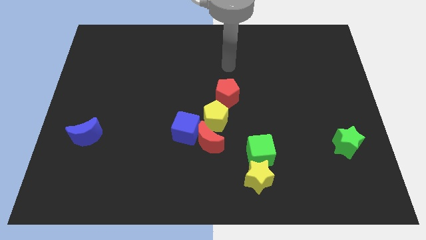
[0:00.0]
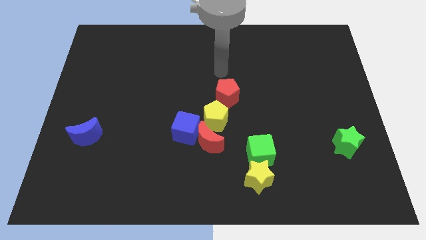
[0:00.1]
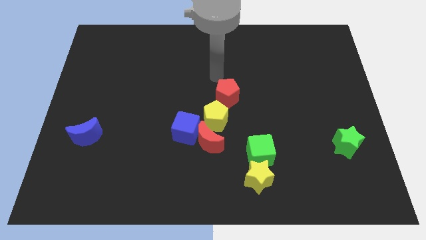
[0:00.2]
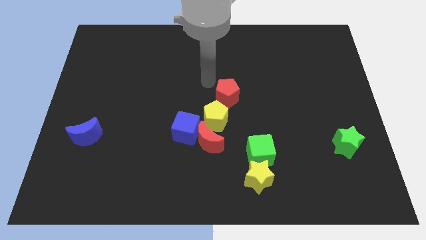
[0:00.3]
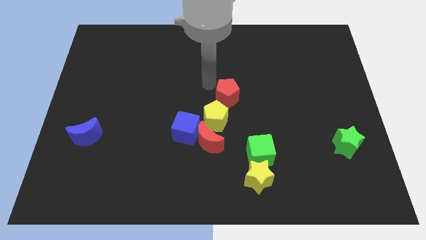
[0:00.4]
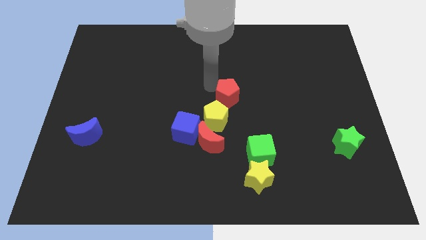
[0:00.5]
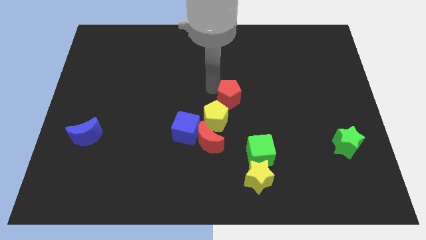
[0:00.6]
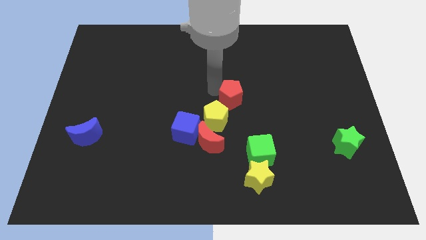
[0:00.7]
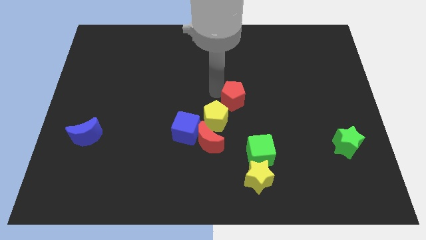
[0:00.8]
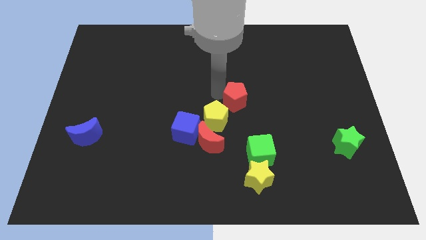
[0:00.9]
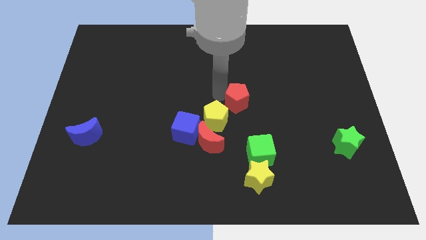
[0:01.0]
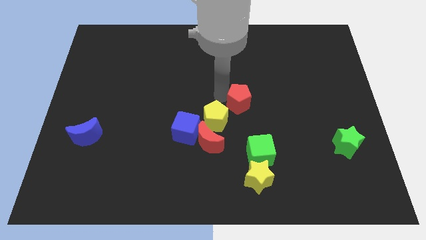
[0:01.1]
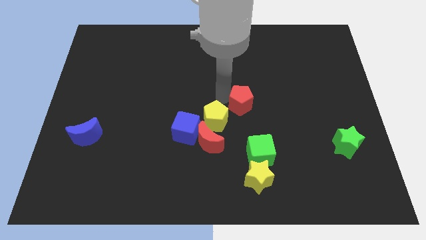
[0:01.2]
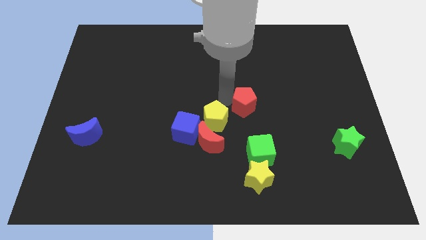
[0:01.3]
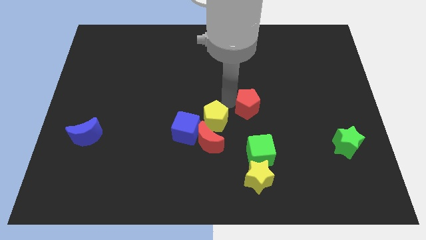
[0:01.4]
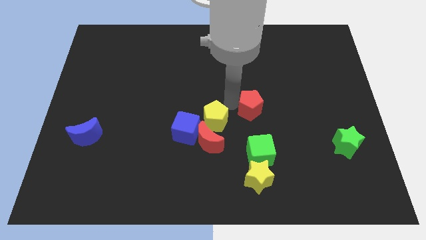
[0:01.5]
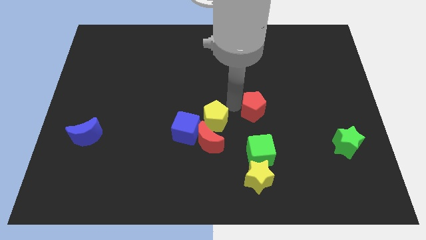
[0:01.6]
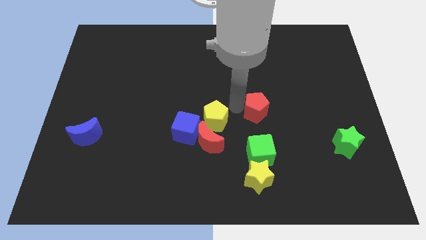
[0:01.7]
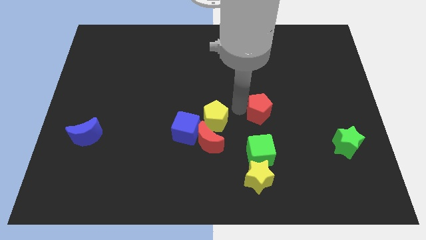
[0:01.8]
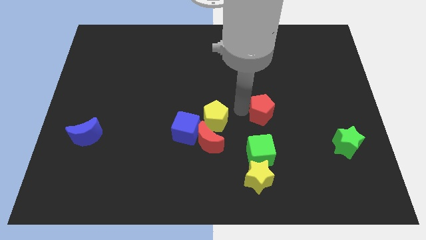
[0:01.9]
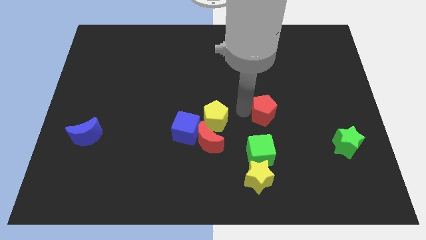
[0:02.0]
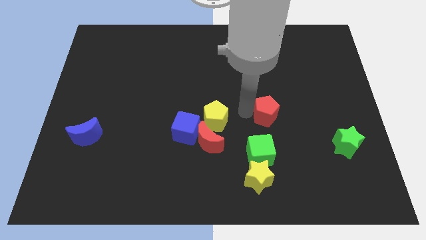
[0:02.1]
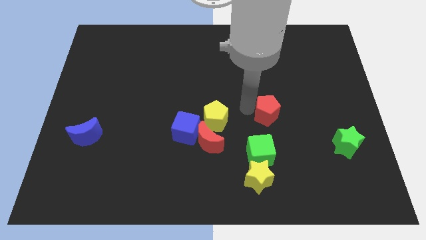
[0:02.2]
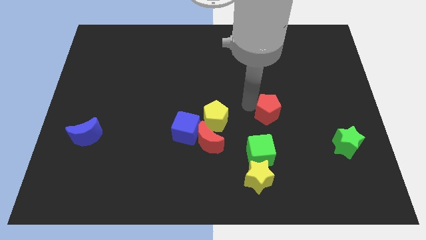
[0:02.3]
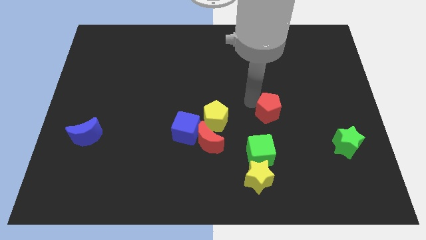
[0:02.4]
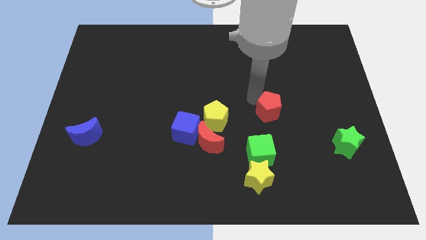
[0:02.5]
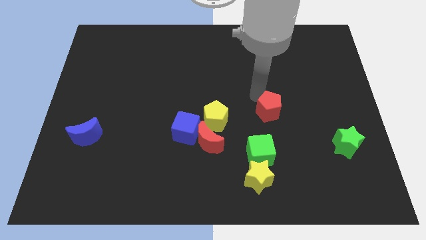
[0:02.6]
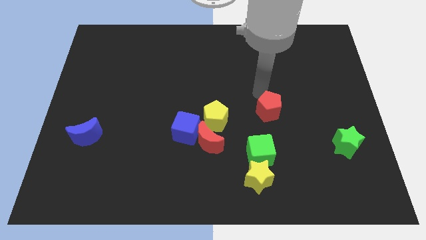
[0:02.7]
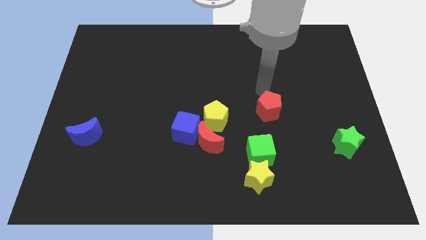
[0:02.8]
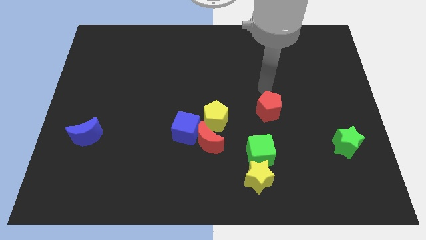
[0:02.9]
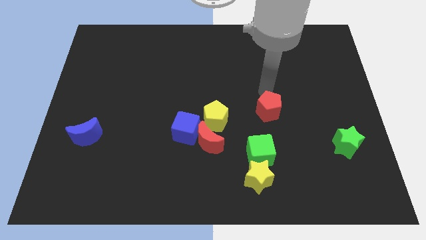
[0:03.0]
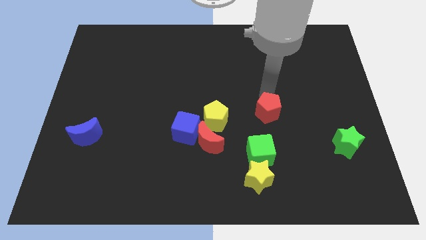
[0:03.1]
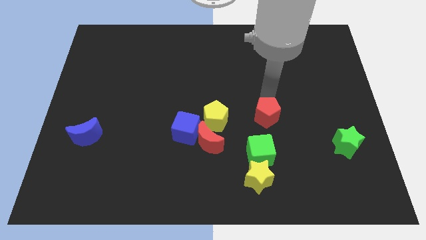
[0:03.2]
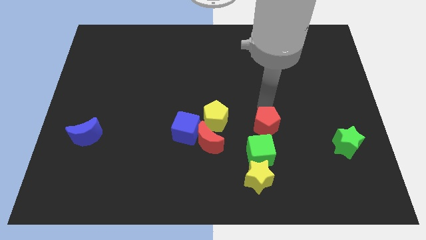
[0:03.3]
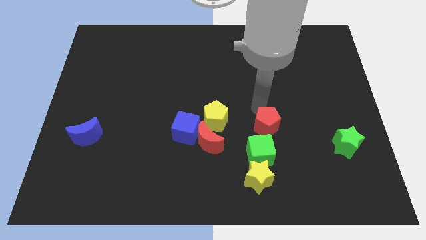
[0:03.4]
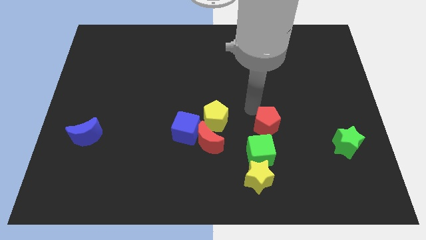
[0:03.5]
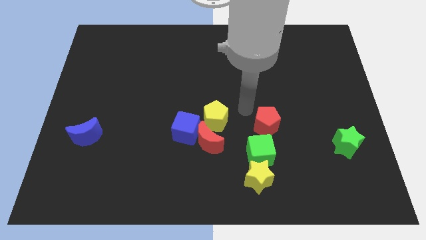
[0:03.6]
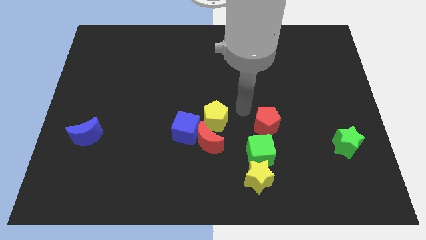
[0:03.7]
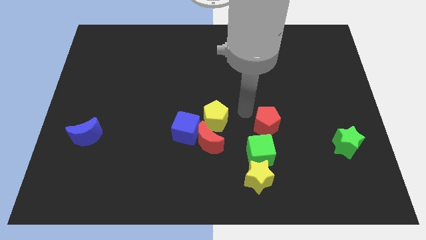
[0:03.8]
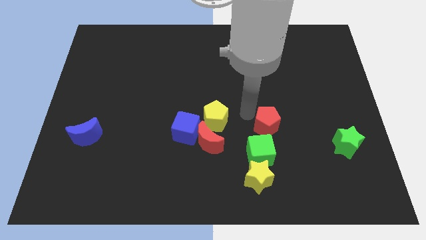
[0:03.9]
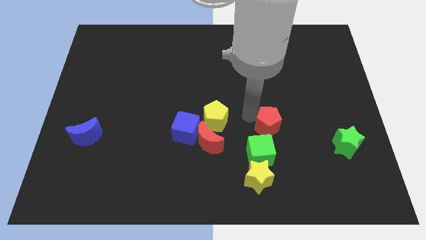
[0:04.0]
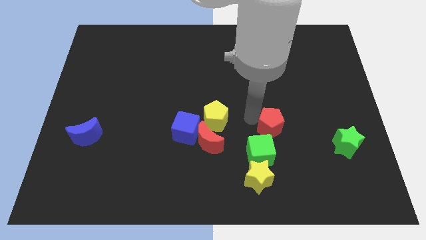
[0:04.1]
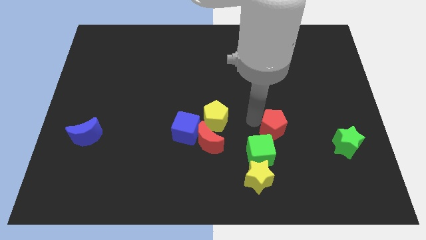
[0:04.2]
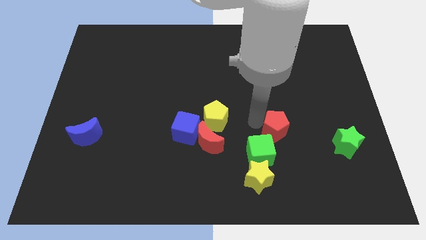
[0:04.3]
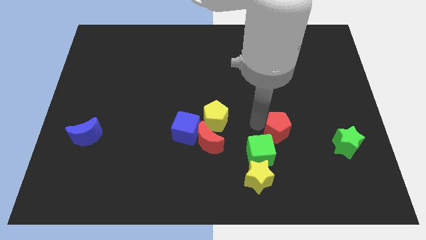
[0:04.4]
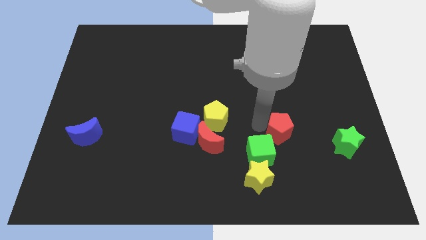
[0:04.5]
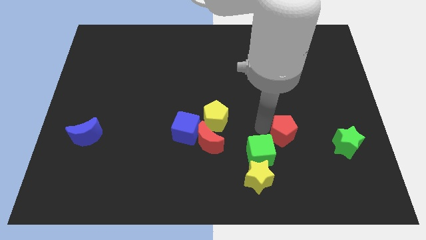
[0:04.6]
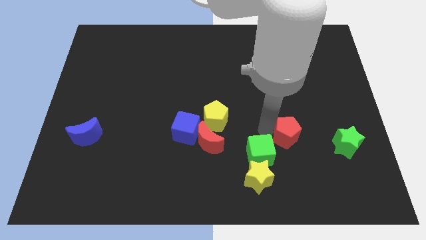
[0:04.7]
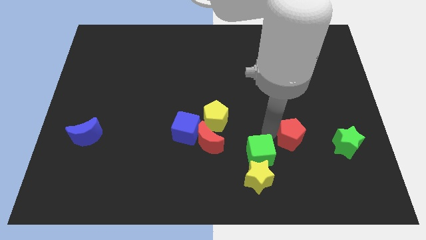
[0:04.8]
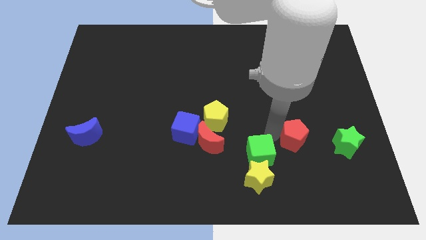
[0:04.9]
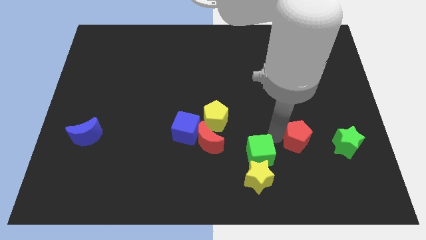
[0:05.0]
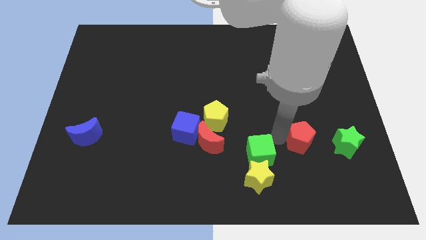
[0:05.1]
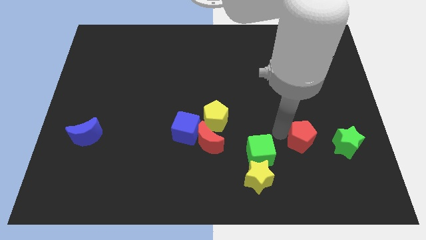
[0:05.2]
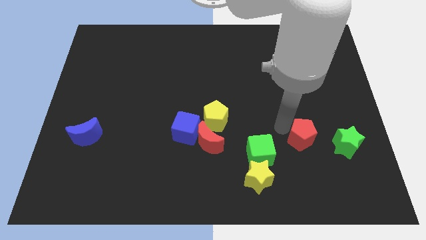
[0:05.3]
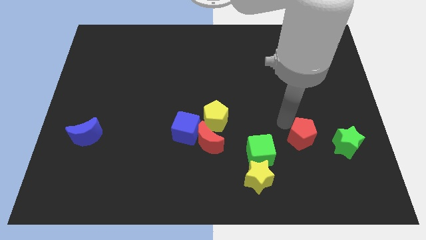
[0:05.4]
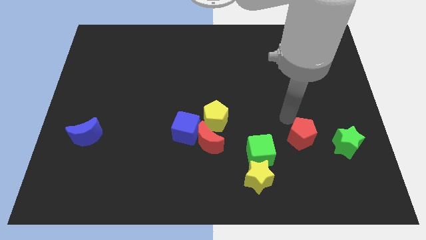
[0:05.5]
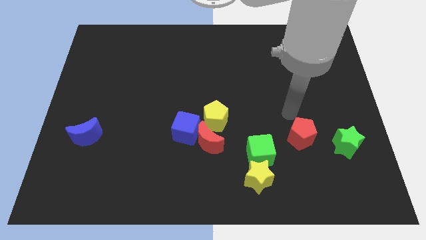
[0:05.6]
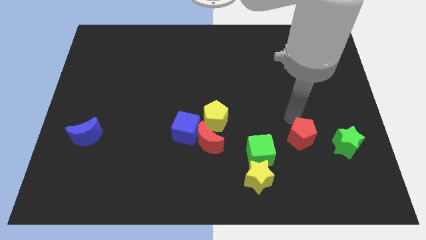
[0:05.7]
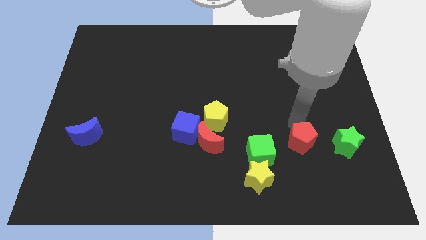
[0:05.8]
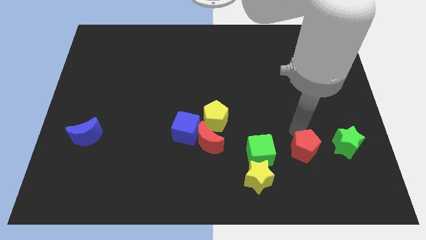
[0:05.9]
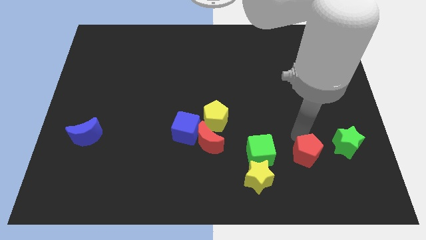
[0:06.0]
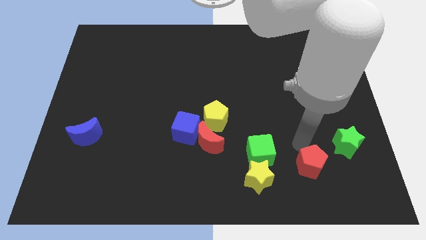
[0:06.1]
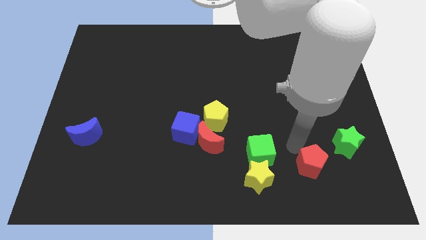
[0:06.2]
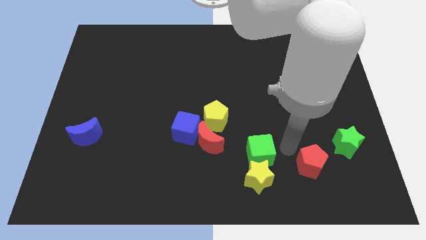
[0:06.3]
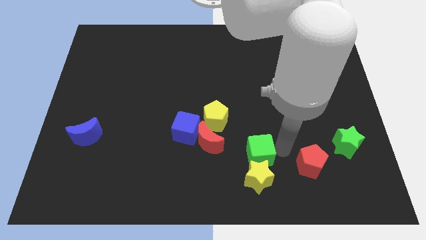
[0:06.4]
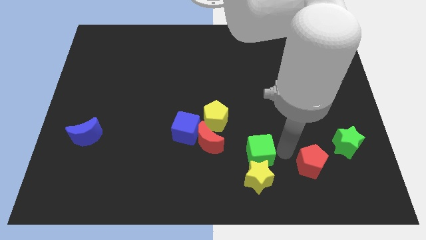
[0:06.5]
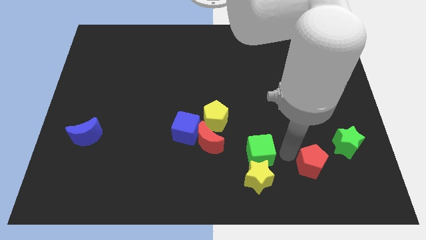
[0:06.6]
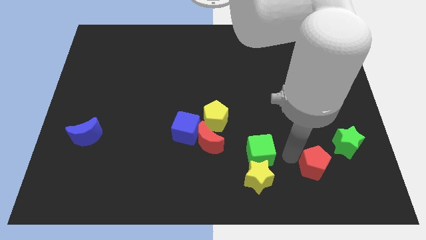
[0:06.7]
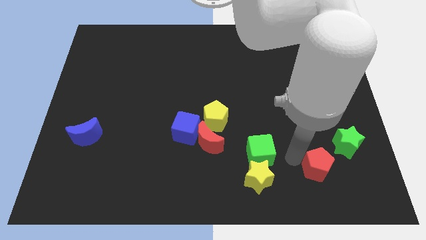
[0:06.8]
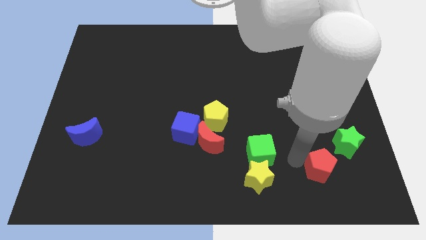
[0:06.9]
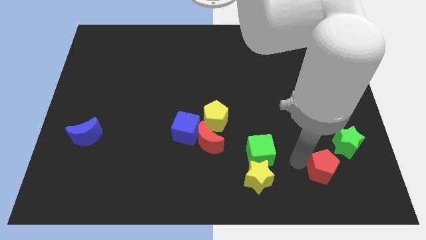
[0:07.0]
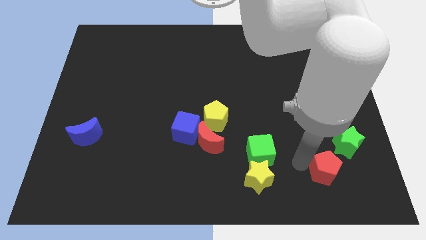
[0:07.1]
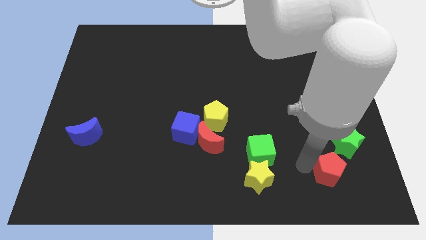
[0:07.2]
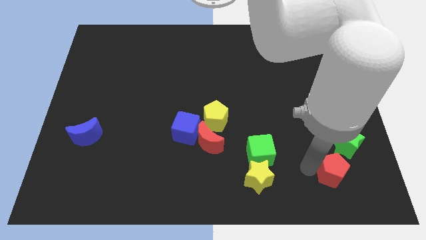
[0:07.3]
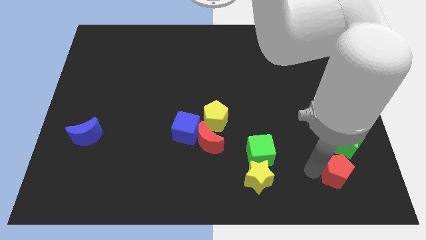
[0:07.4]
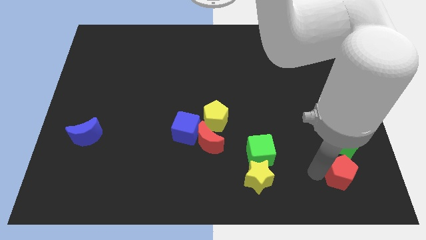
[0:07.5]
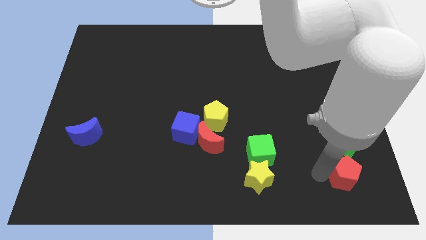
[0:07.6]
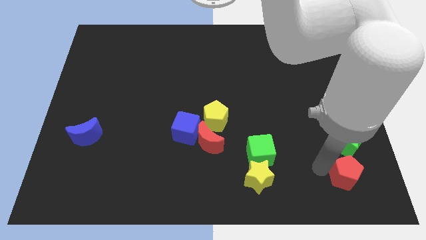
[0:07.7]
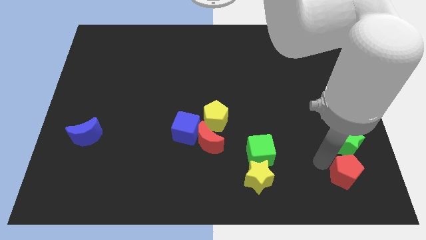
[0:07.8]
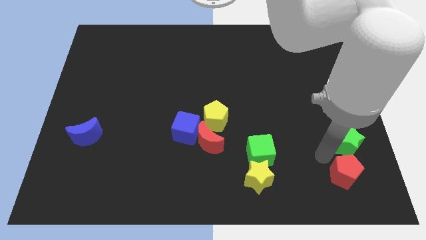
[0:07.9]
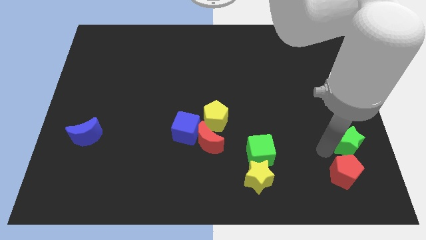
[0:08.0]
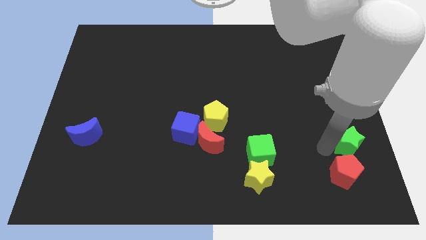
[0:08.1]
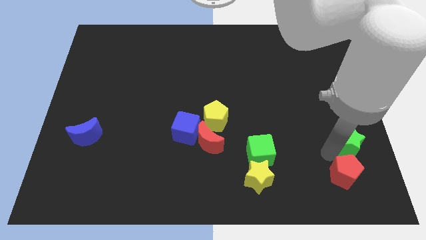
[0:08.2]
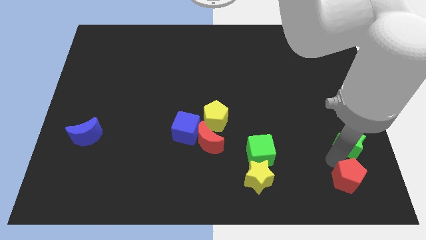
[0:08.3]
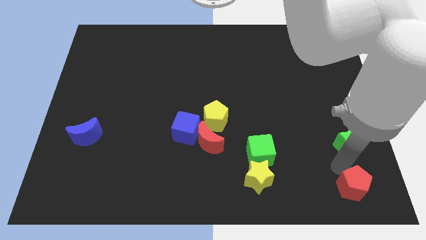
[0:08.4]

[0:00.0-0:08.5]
move the red pentagon to the bottom right corner
